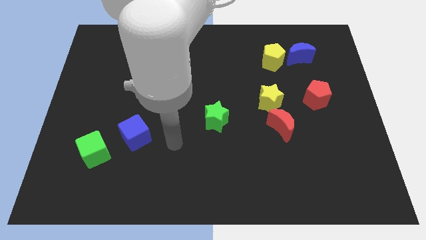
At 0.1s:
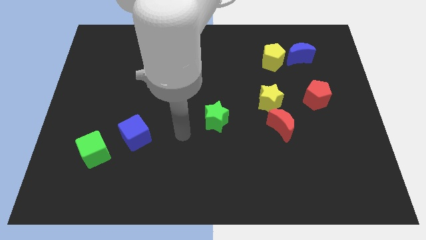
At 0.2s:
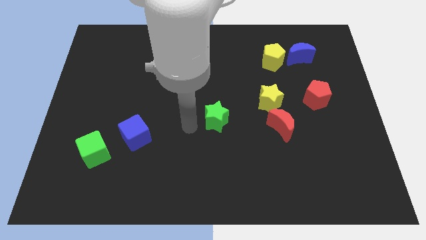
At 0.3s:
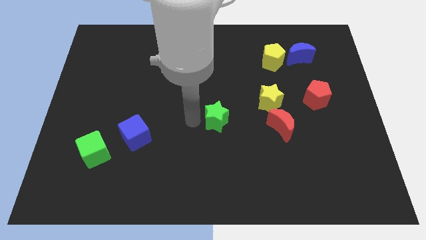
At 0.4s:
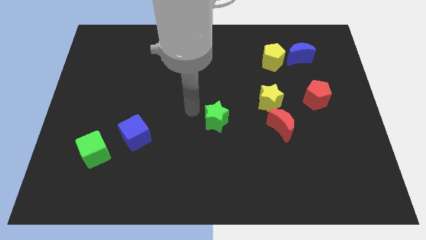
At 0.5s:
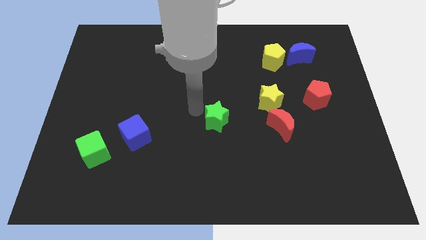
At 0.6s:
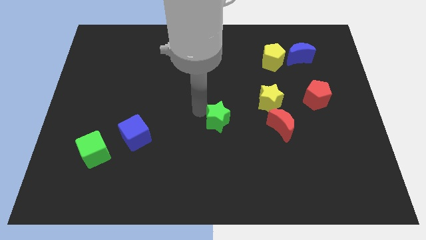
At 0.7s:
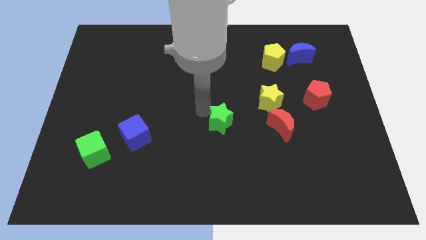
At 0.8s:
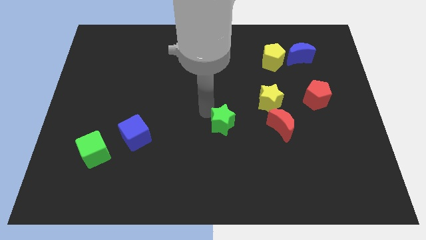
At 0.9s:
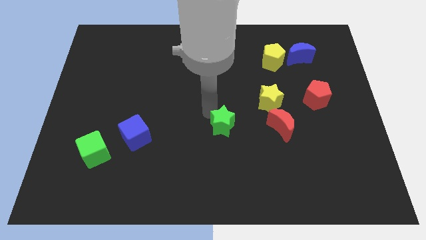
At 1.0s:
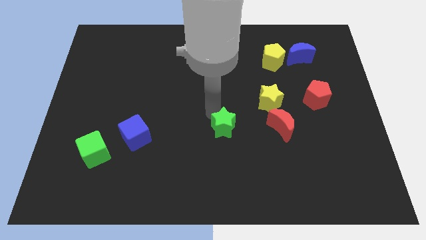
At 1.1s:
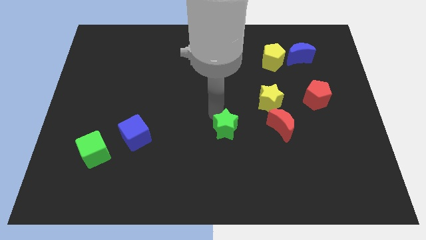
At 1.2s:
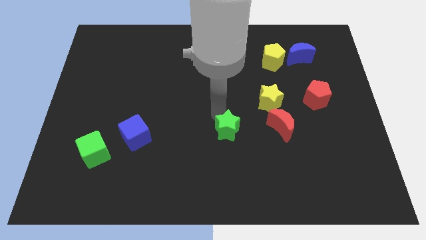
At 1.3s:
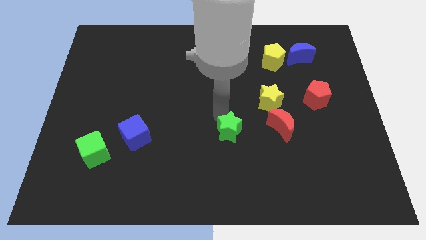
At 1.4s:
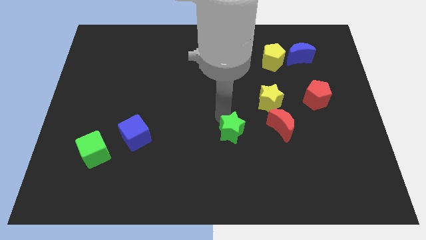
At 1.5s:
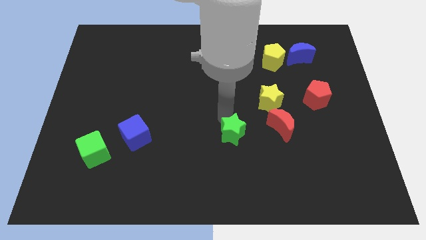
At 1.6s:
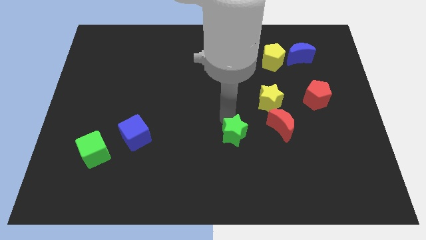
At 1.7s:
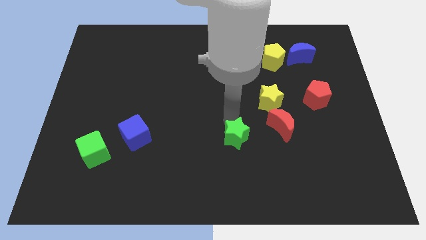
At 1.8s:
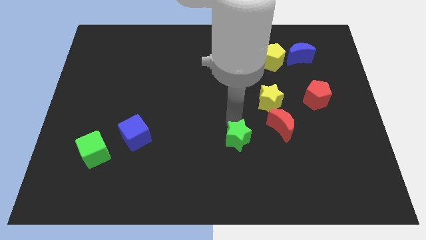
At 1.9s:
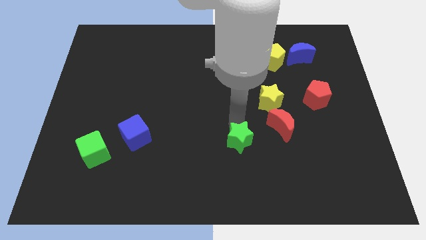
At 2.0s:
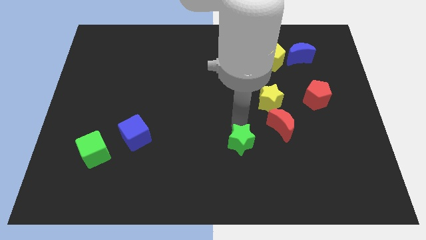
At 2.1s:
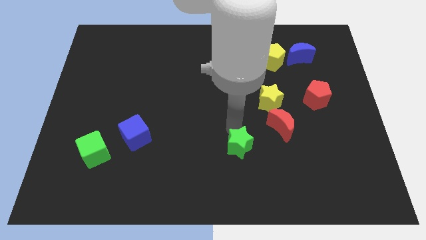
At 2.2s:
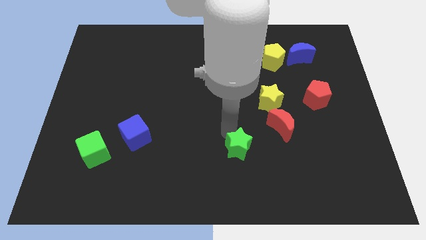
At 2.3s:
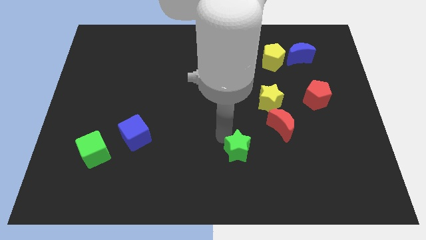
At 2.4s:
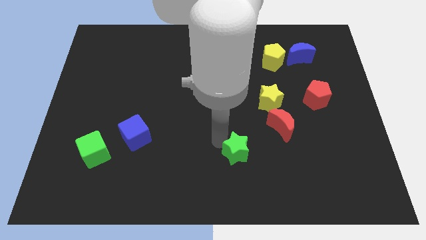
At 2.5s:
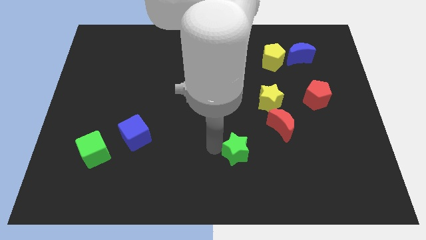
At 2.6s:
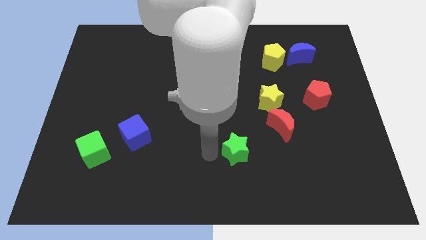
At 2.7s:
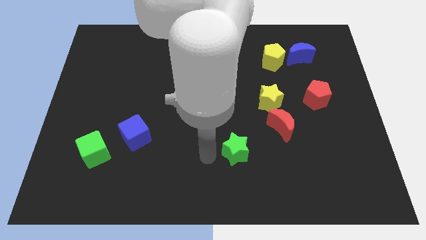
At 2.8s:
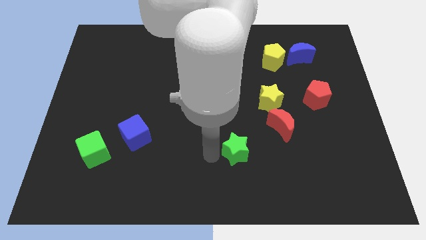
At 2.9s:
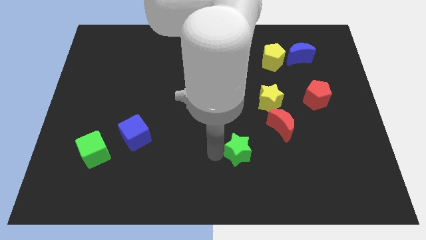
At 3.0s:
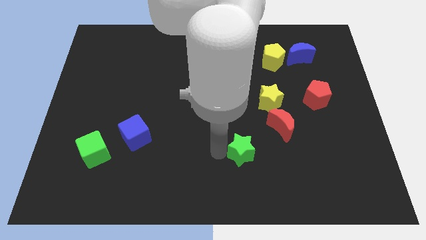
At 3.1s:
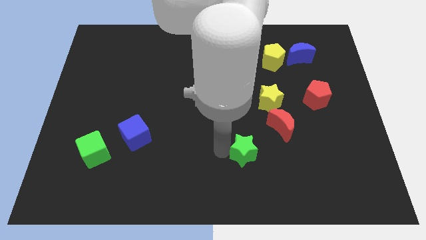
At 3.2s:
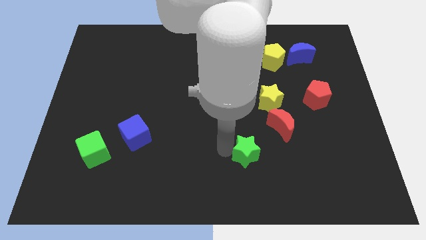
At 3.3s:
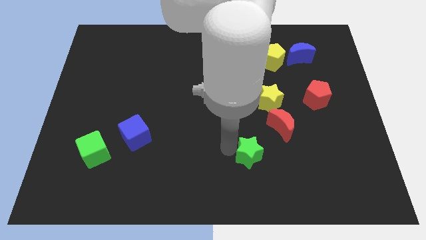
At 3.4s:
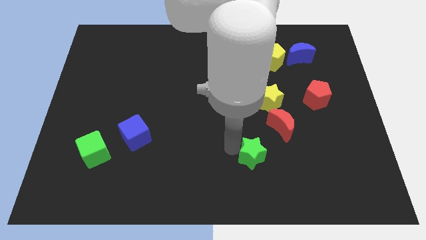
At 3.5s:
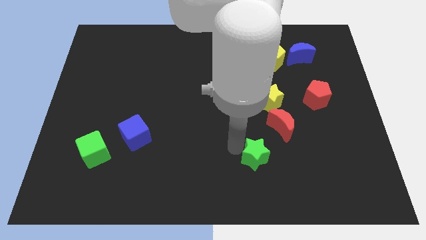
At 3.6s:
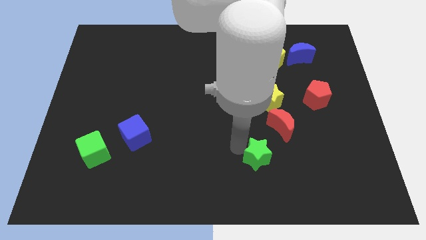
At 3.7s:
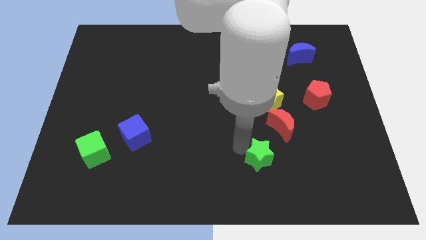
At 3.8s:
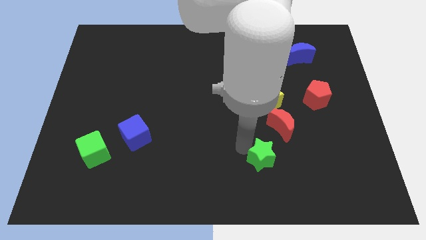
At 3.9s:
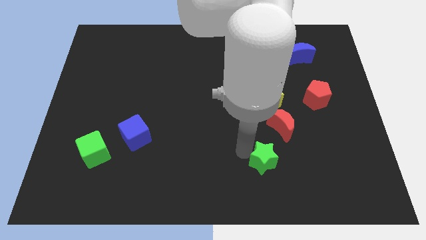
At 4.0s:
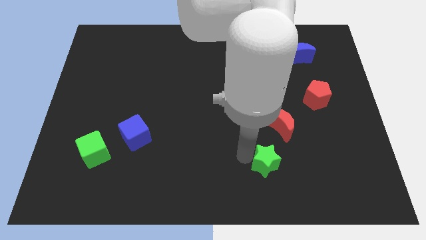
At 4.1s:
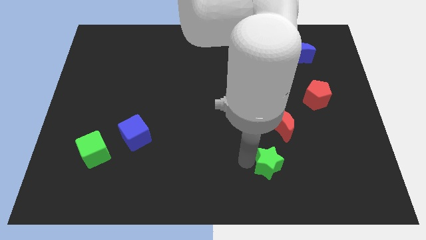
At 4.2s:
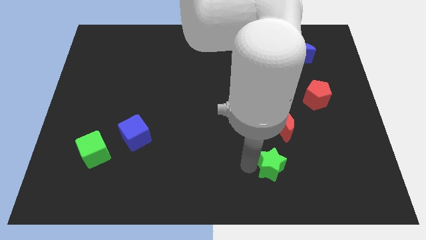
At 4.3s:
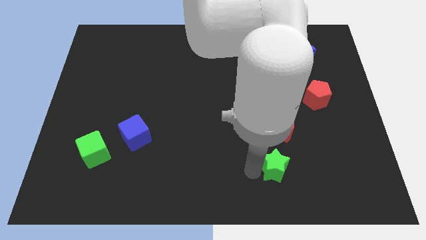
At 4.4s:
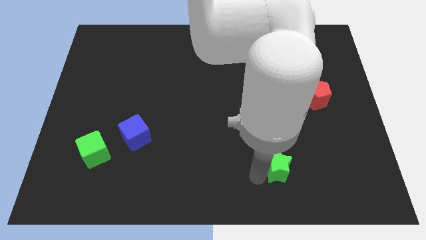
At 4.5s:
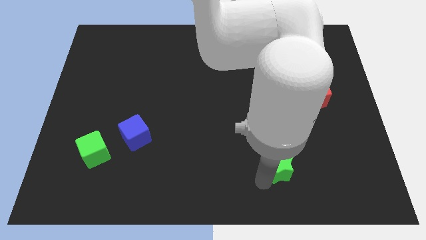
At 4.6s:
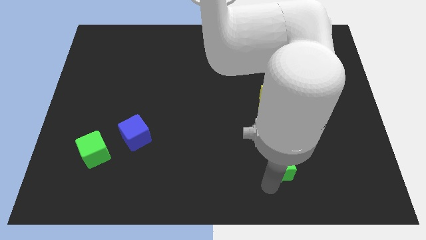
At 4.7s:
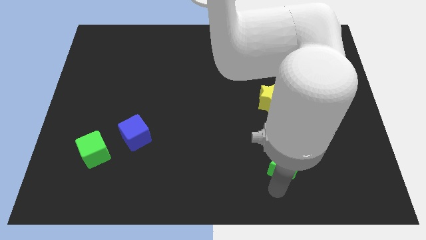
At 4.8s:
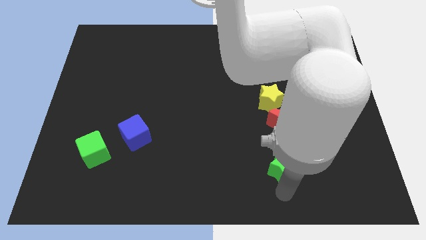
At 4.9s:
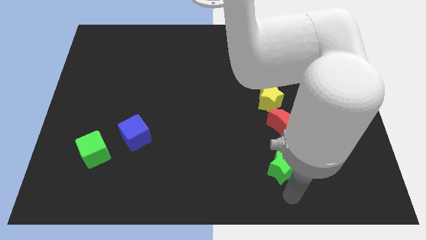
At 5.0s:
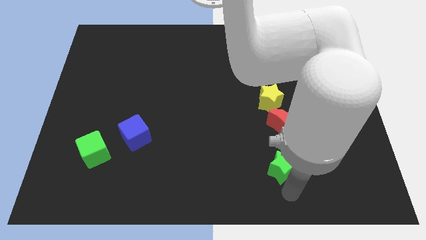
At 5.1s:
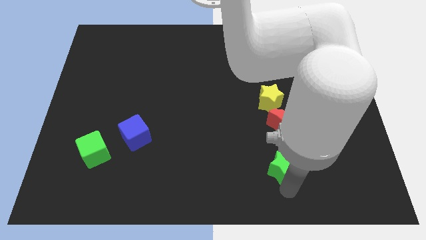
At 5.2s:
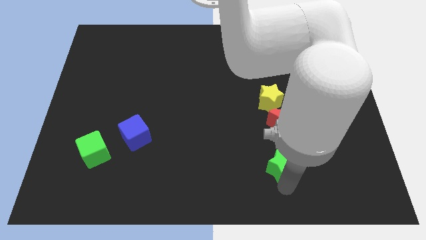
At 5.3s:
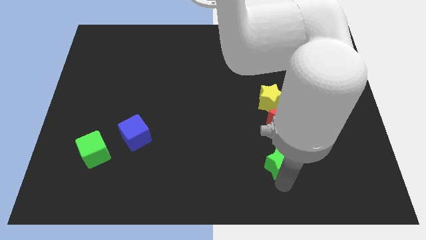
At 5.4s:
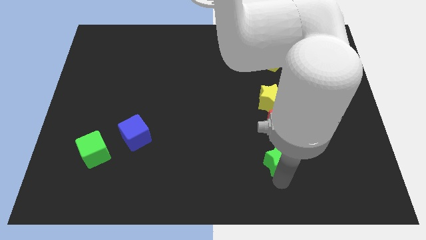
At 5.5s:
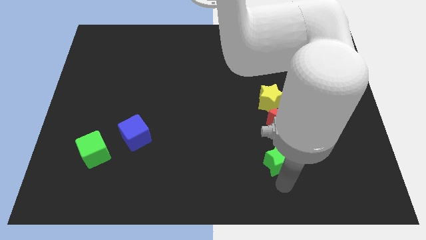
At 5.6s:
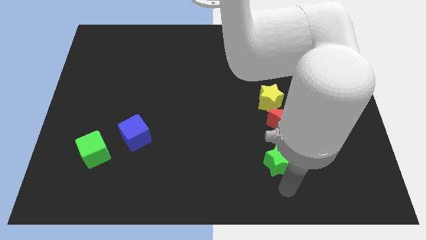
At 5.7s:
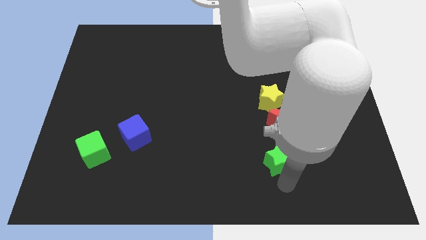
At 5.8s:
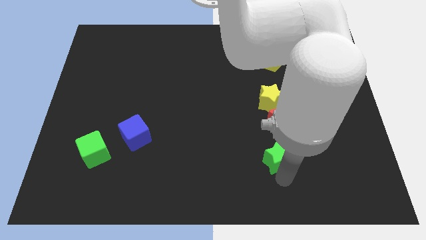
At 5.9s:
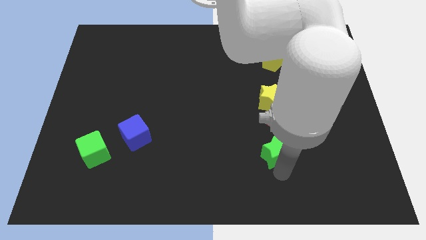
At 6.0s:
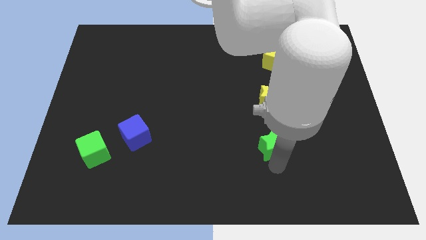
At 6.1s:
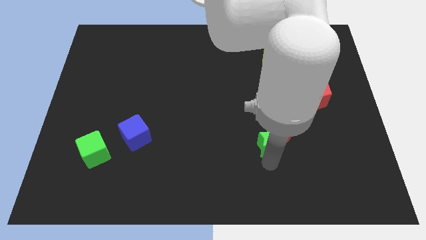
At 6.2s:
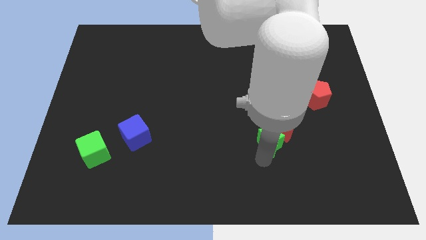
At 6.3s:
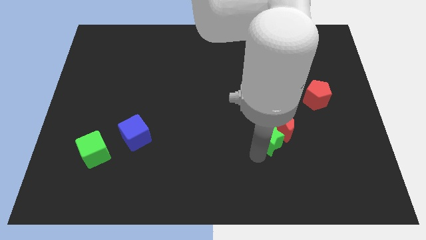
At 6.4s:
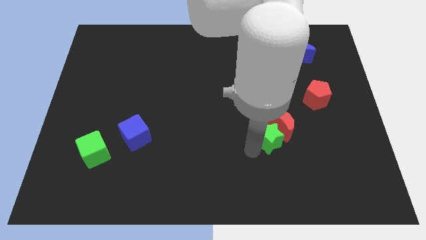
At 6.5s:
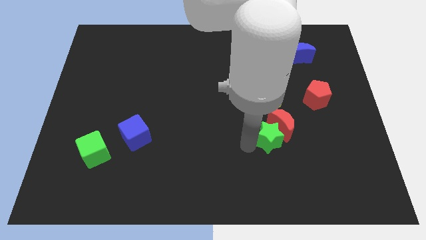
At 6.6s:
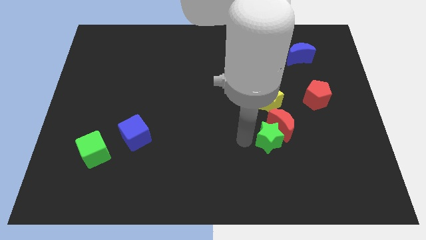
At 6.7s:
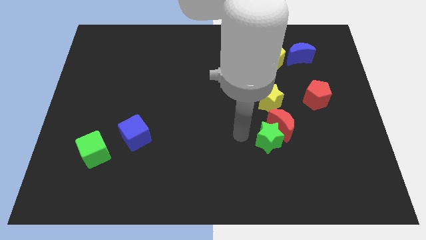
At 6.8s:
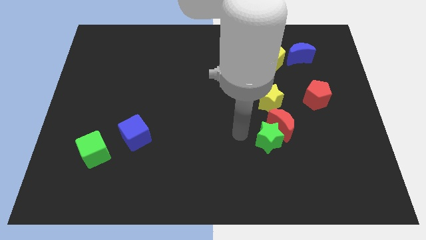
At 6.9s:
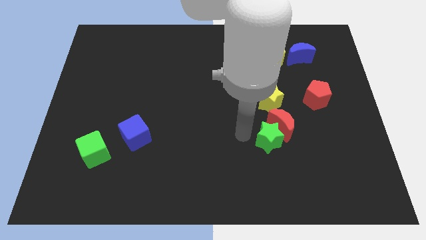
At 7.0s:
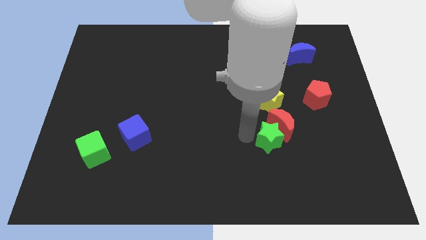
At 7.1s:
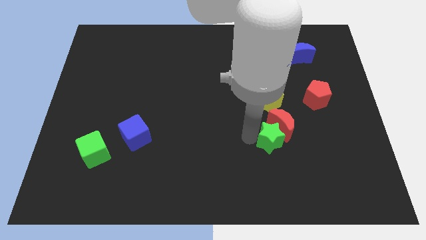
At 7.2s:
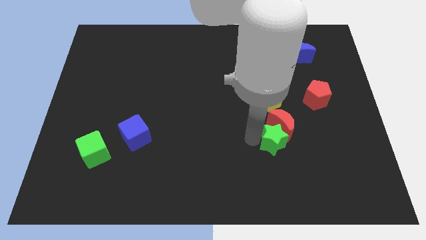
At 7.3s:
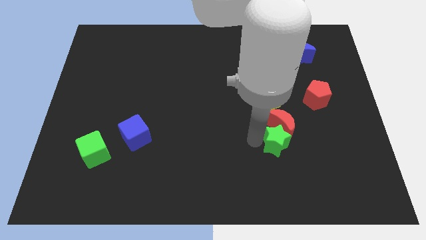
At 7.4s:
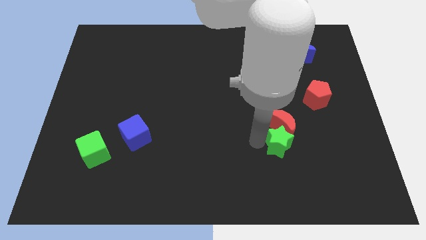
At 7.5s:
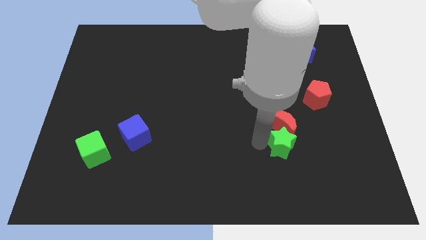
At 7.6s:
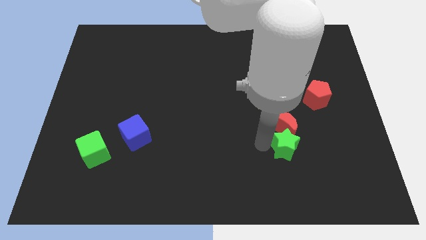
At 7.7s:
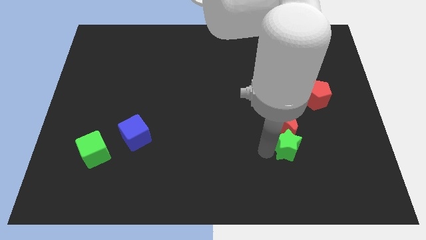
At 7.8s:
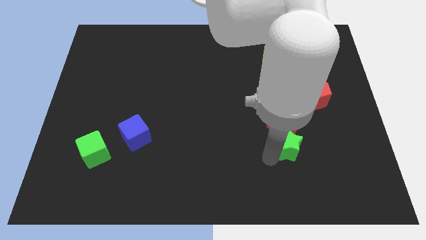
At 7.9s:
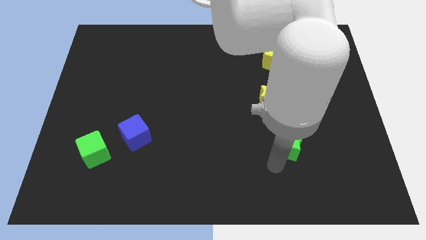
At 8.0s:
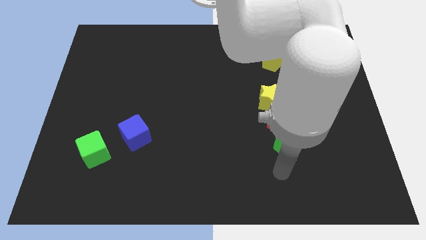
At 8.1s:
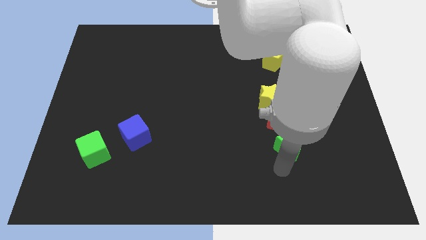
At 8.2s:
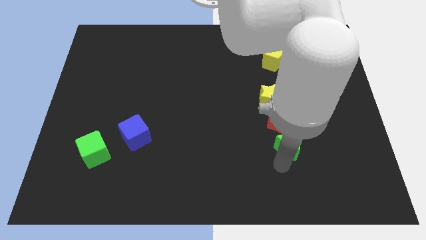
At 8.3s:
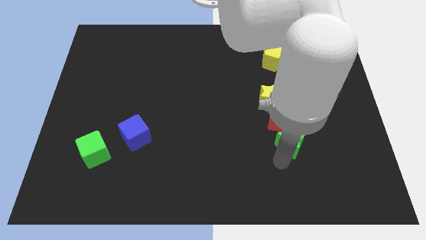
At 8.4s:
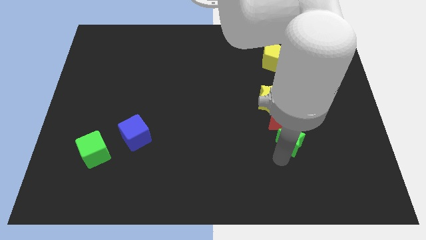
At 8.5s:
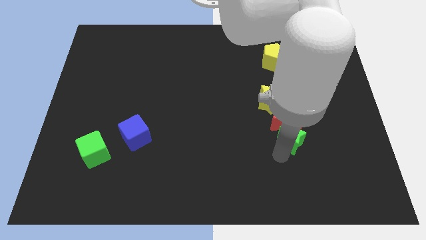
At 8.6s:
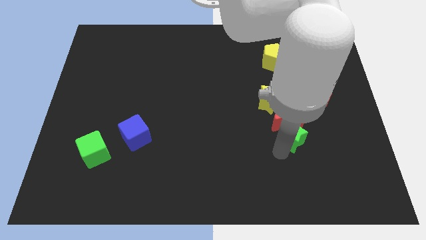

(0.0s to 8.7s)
slide the green star diagonally down and to the right of the yellow star
